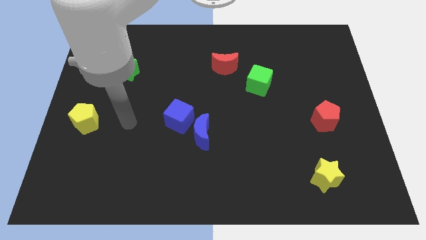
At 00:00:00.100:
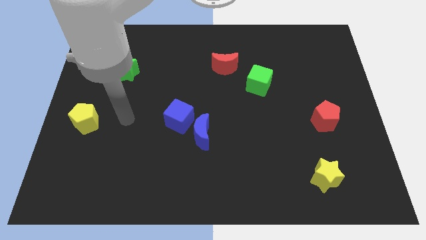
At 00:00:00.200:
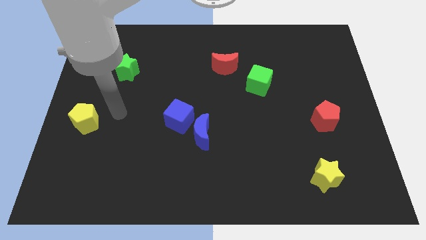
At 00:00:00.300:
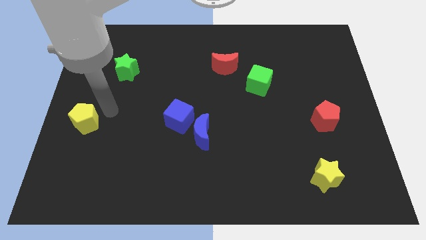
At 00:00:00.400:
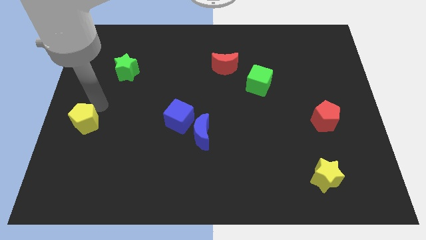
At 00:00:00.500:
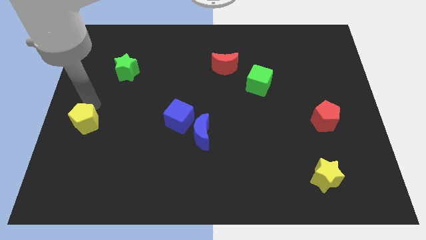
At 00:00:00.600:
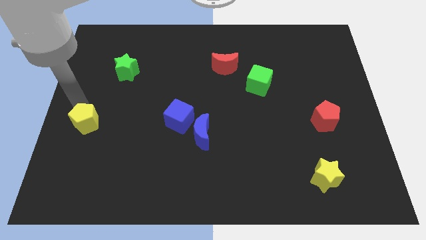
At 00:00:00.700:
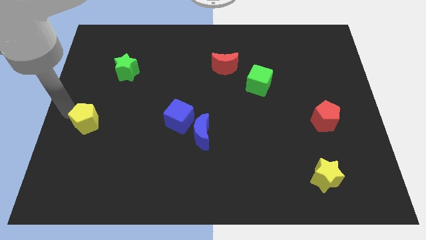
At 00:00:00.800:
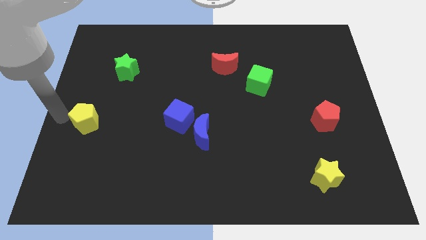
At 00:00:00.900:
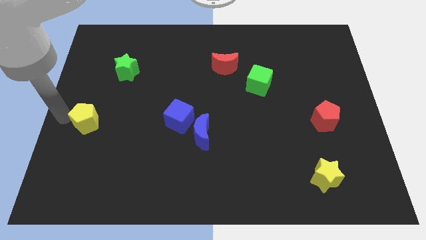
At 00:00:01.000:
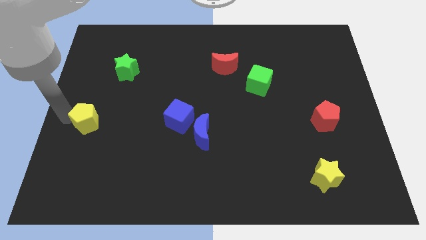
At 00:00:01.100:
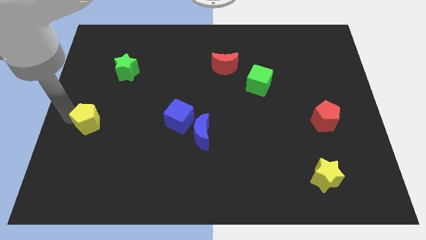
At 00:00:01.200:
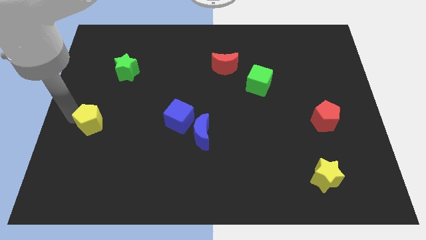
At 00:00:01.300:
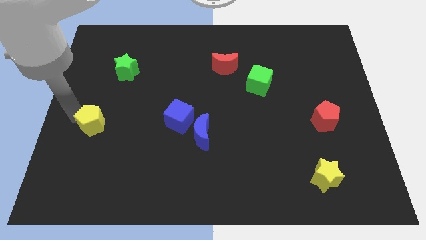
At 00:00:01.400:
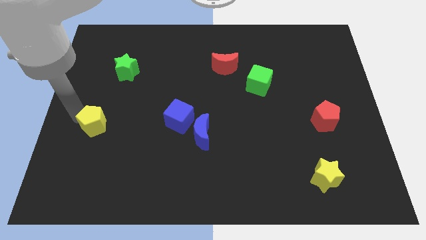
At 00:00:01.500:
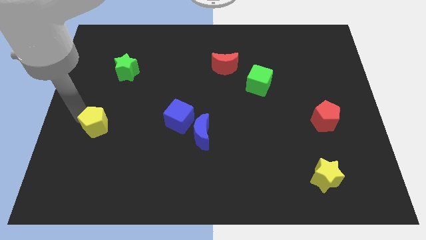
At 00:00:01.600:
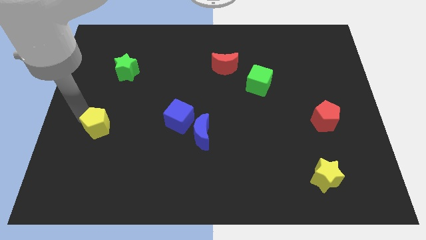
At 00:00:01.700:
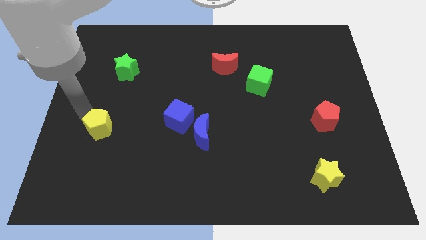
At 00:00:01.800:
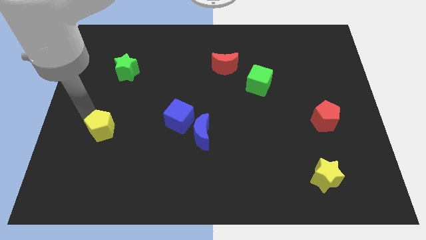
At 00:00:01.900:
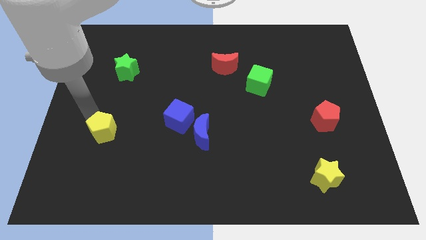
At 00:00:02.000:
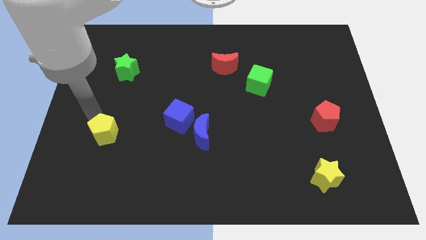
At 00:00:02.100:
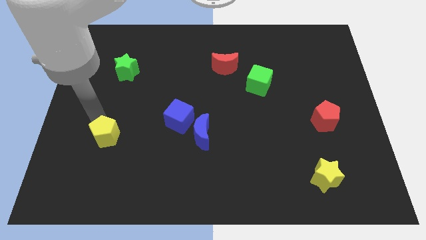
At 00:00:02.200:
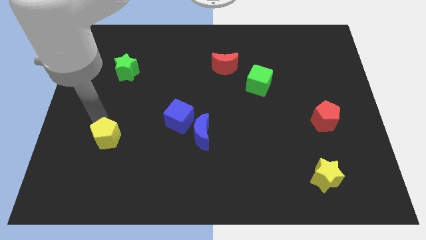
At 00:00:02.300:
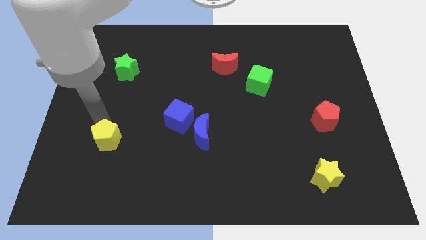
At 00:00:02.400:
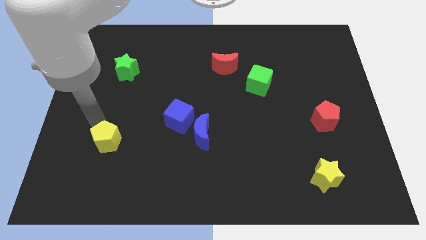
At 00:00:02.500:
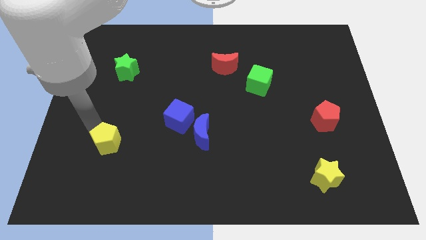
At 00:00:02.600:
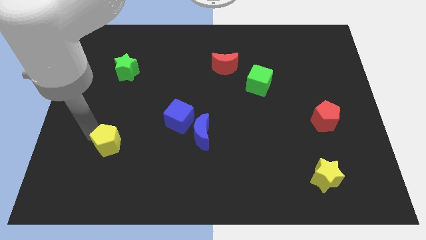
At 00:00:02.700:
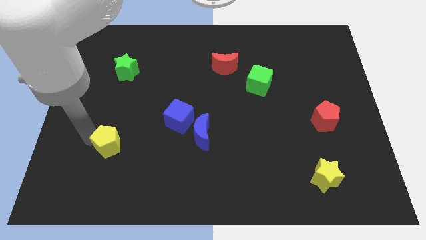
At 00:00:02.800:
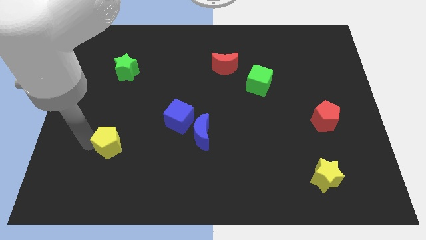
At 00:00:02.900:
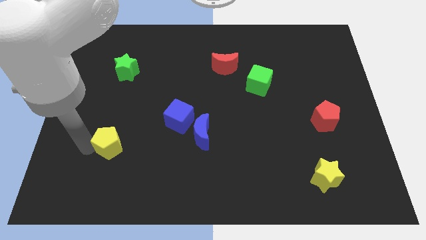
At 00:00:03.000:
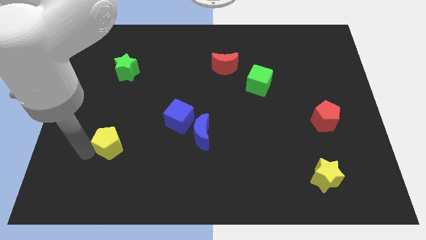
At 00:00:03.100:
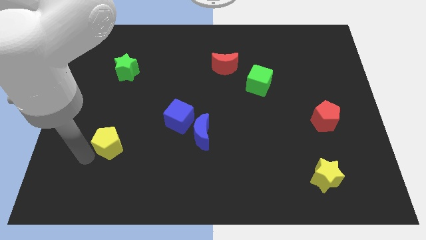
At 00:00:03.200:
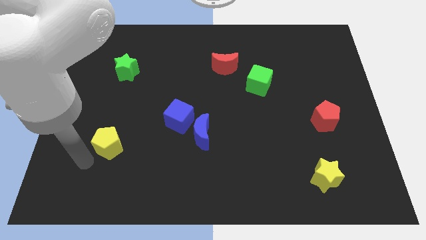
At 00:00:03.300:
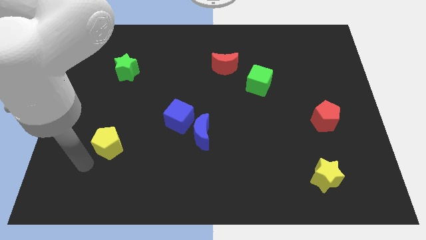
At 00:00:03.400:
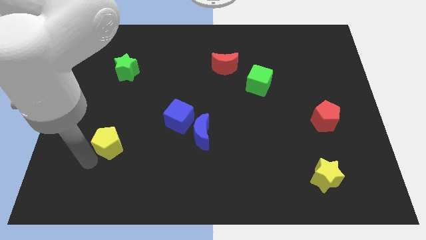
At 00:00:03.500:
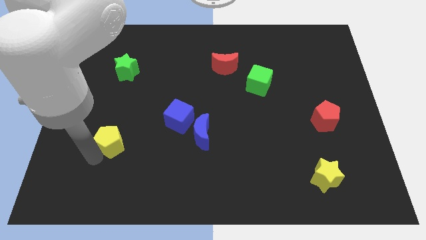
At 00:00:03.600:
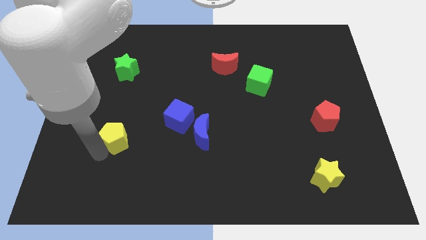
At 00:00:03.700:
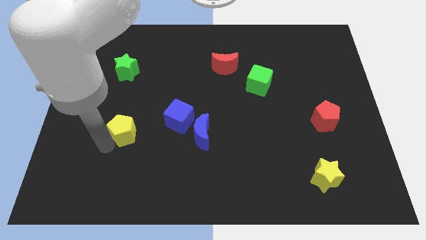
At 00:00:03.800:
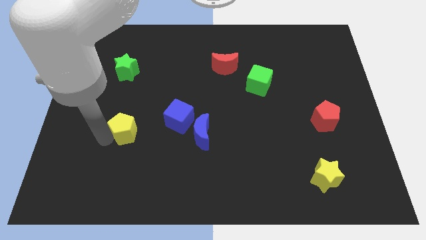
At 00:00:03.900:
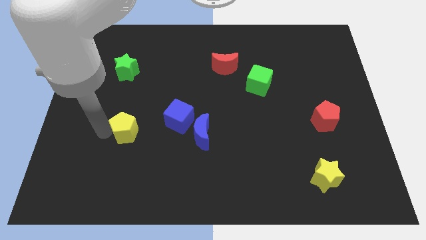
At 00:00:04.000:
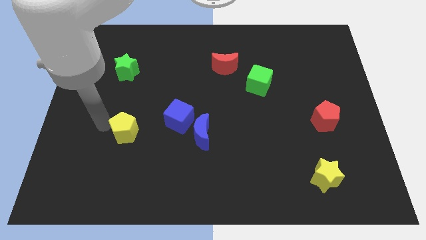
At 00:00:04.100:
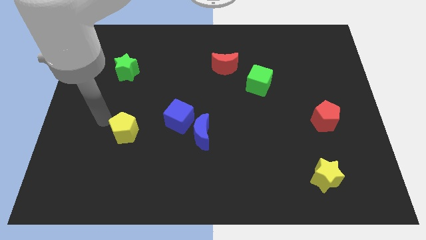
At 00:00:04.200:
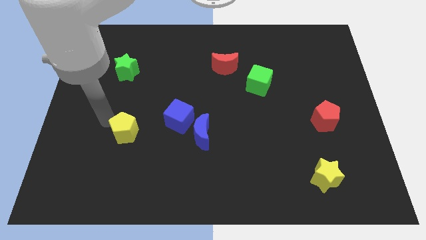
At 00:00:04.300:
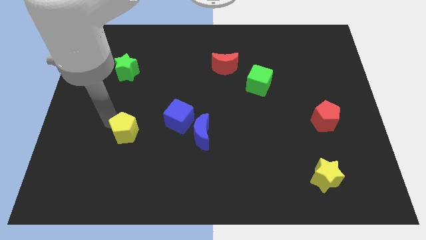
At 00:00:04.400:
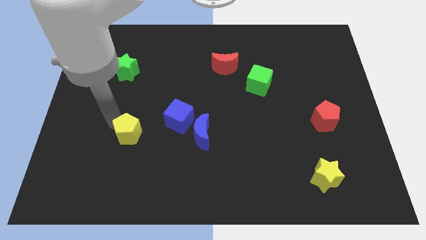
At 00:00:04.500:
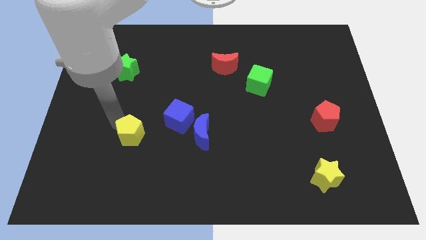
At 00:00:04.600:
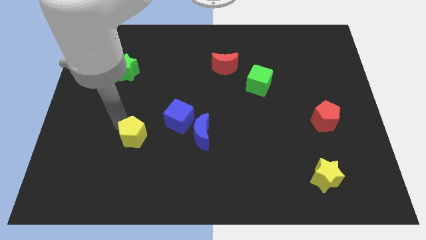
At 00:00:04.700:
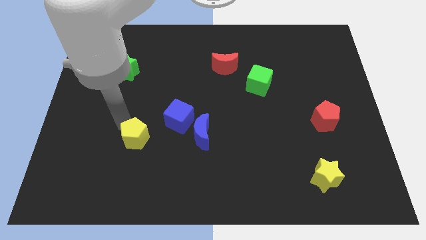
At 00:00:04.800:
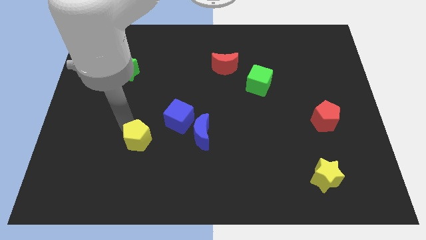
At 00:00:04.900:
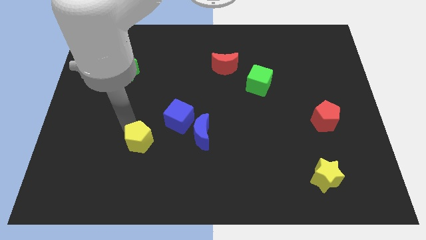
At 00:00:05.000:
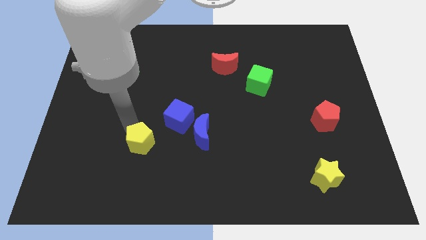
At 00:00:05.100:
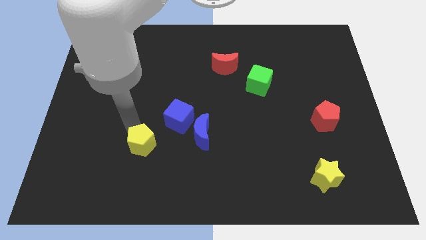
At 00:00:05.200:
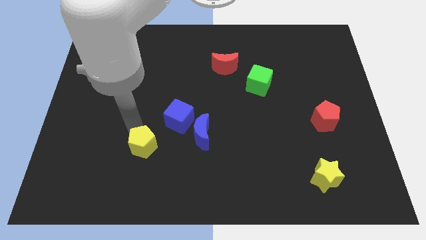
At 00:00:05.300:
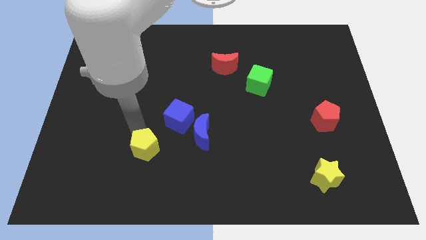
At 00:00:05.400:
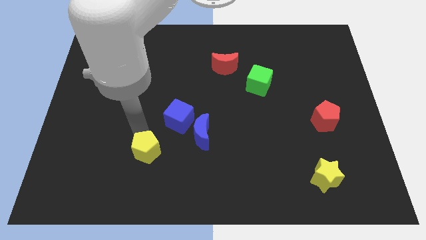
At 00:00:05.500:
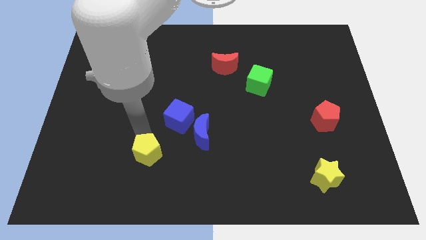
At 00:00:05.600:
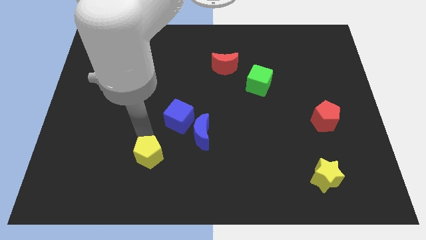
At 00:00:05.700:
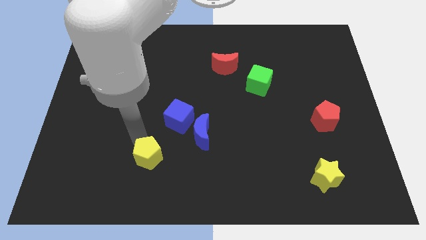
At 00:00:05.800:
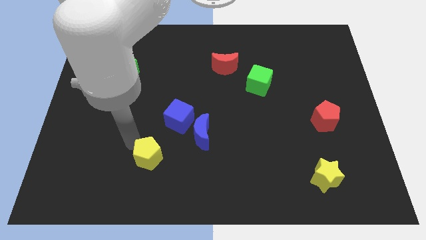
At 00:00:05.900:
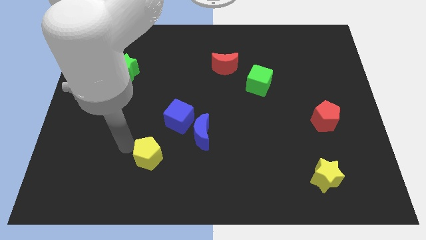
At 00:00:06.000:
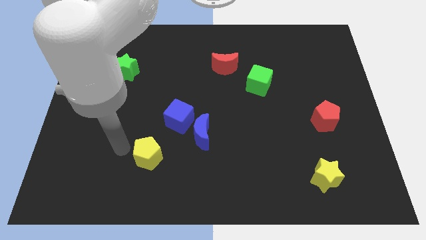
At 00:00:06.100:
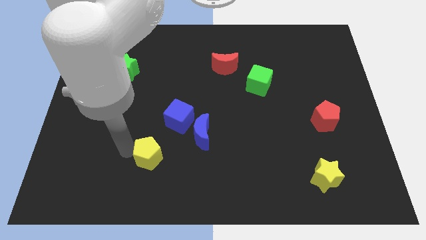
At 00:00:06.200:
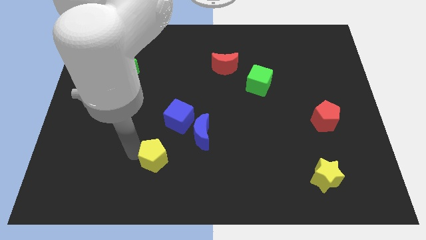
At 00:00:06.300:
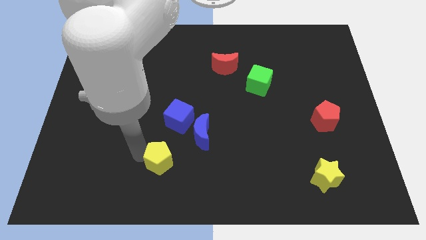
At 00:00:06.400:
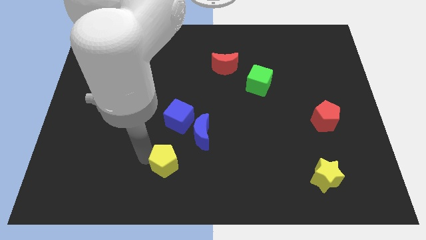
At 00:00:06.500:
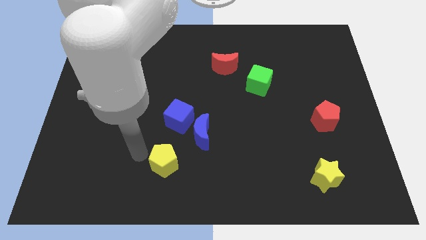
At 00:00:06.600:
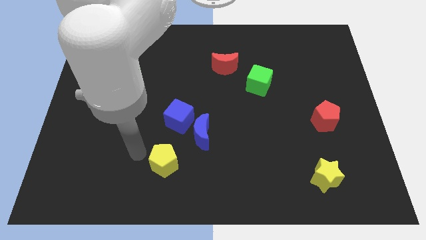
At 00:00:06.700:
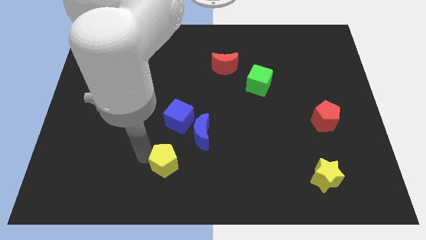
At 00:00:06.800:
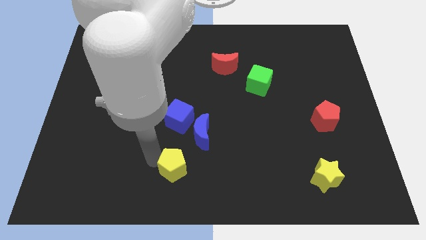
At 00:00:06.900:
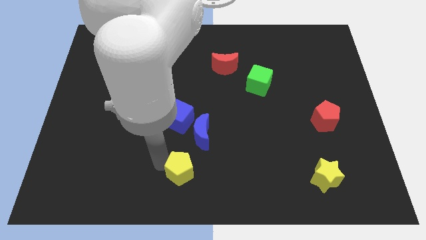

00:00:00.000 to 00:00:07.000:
put the yellow pentagon below the blue moon

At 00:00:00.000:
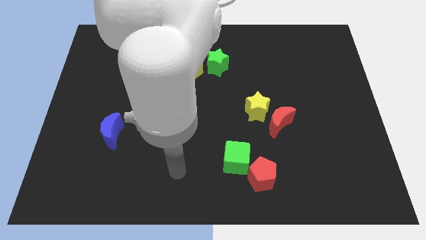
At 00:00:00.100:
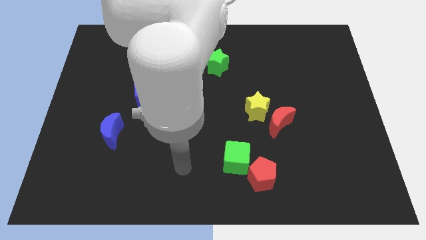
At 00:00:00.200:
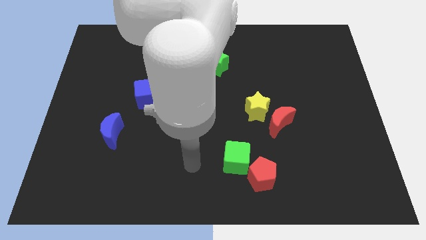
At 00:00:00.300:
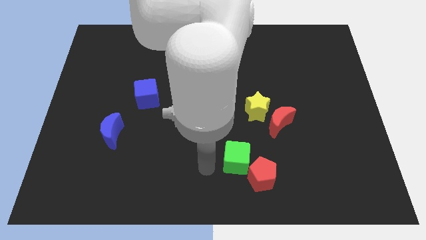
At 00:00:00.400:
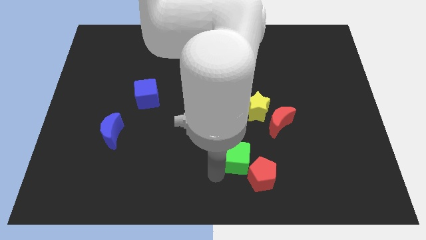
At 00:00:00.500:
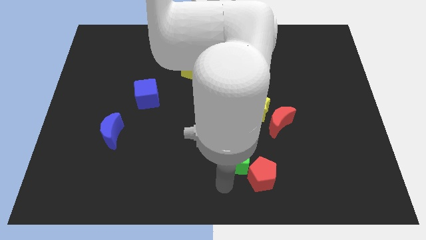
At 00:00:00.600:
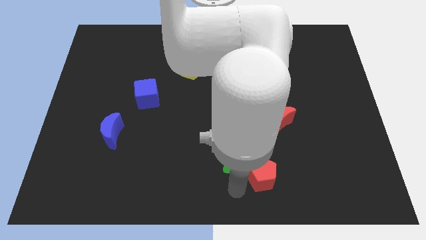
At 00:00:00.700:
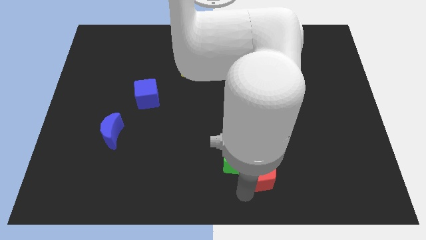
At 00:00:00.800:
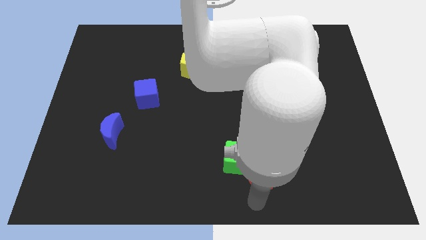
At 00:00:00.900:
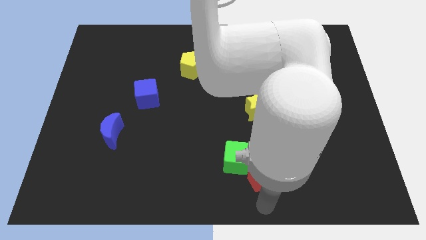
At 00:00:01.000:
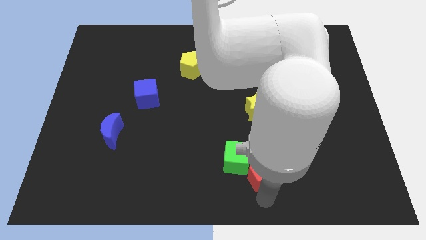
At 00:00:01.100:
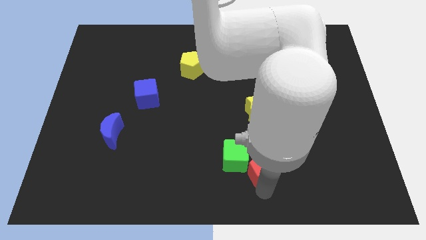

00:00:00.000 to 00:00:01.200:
put the red pentagon to the bottom of the yellow star

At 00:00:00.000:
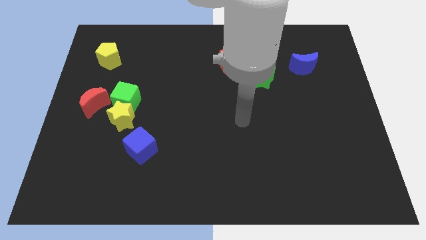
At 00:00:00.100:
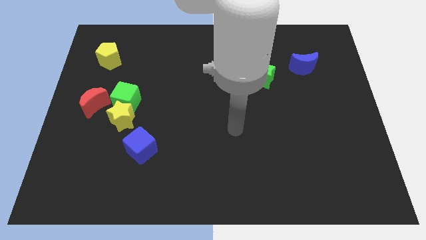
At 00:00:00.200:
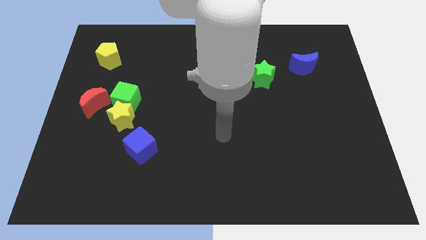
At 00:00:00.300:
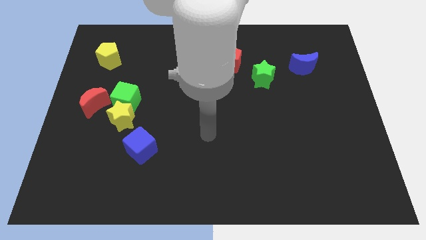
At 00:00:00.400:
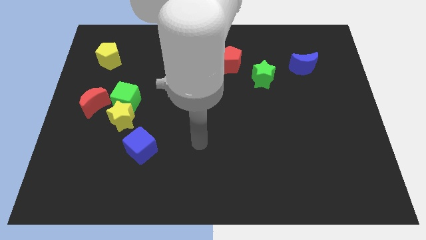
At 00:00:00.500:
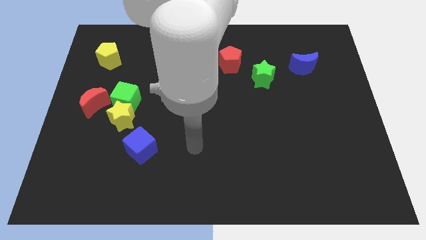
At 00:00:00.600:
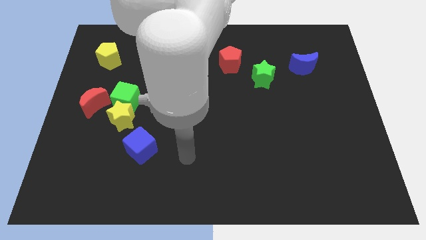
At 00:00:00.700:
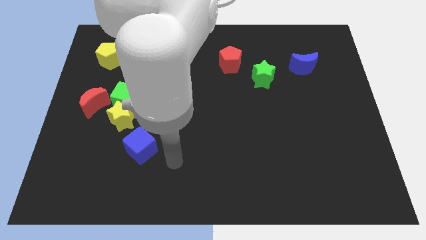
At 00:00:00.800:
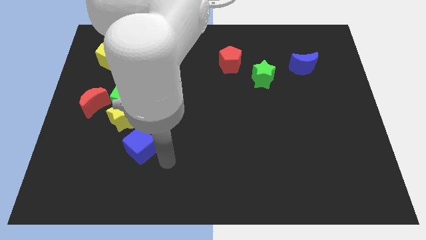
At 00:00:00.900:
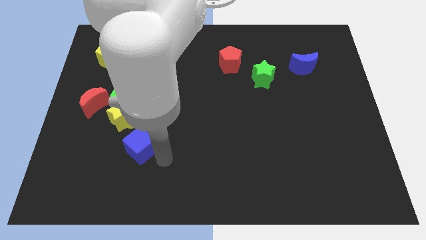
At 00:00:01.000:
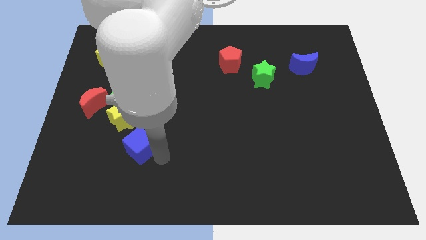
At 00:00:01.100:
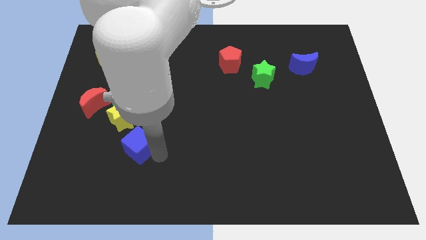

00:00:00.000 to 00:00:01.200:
push the blue cube below the green cube
